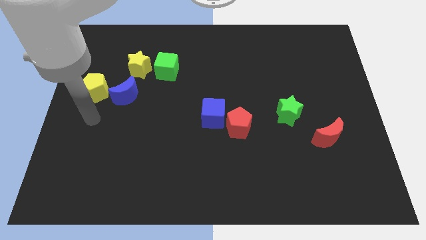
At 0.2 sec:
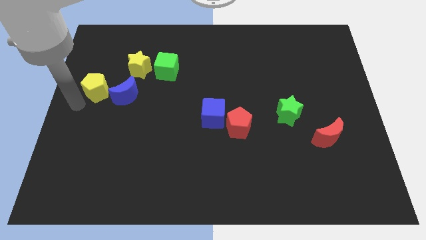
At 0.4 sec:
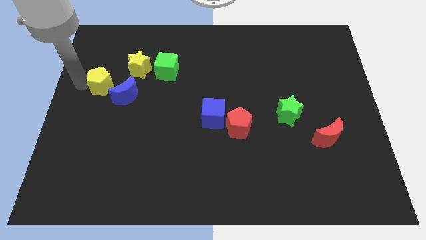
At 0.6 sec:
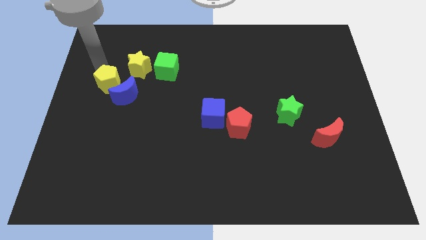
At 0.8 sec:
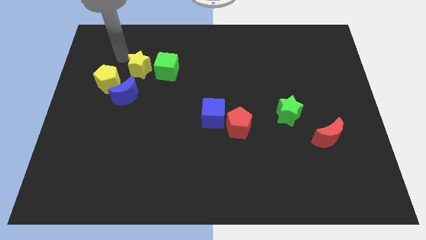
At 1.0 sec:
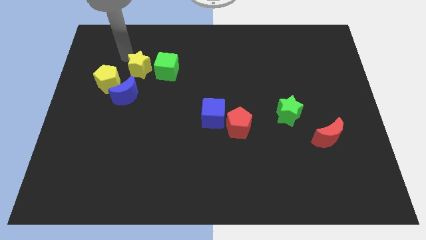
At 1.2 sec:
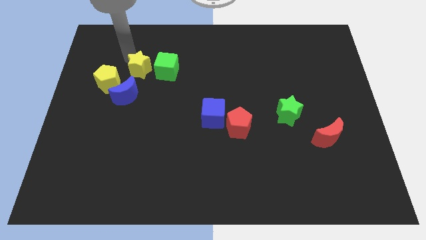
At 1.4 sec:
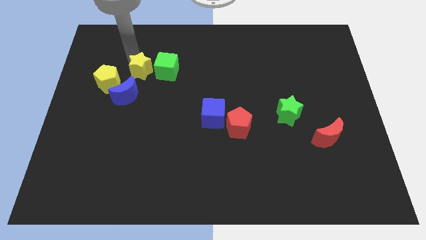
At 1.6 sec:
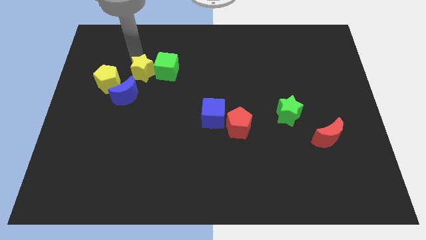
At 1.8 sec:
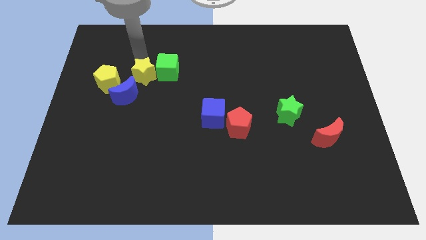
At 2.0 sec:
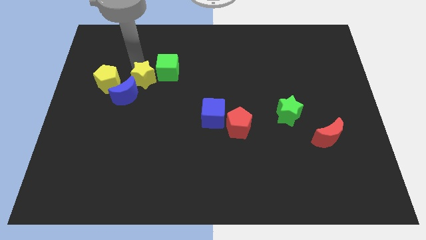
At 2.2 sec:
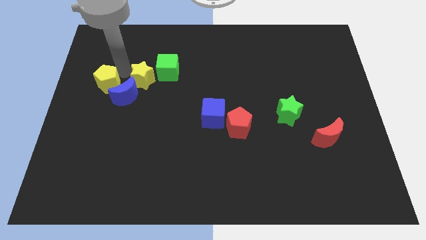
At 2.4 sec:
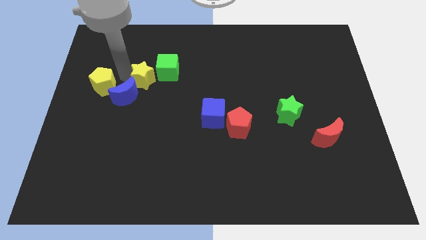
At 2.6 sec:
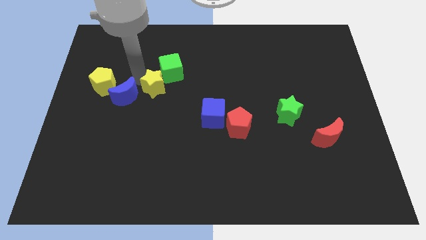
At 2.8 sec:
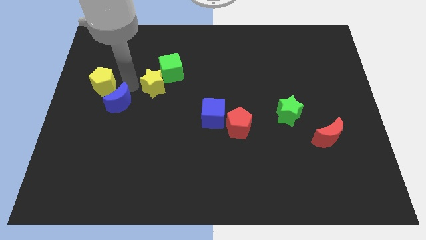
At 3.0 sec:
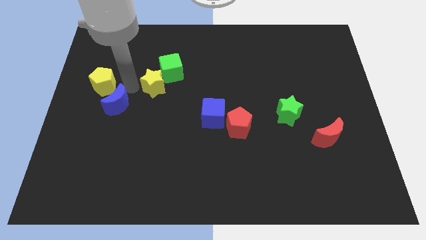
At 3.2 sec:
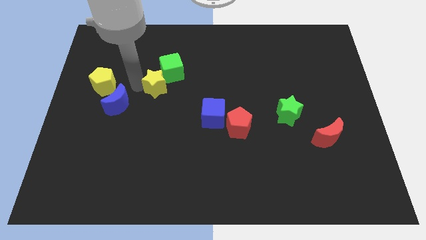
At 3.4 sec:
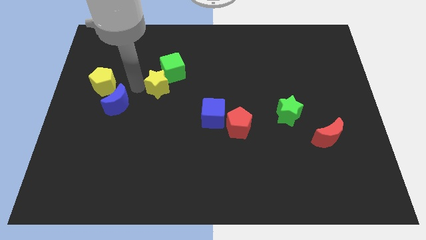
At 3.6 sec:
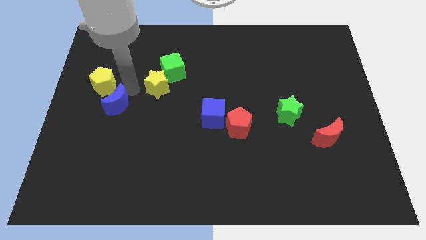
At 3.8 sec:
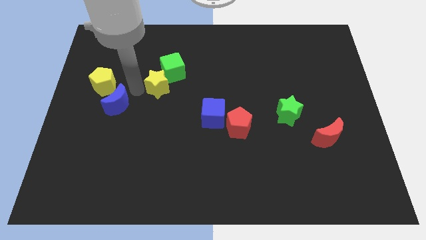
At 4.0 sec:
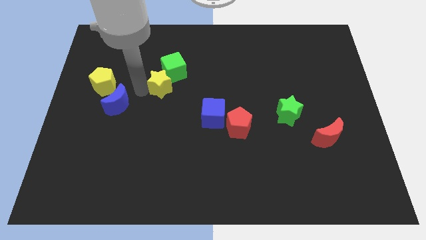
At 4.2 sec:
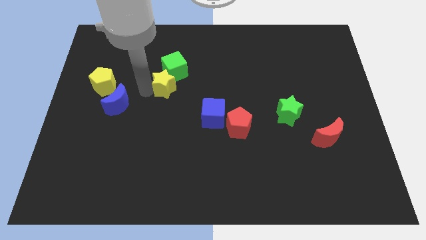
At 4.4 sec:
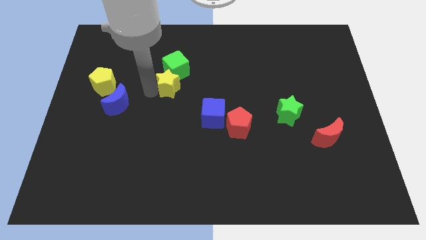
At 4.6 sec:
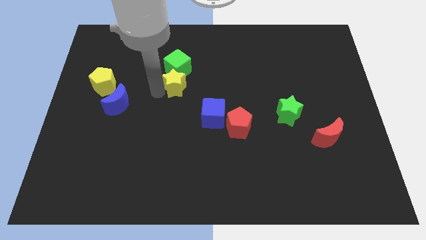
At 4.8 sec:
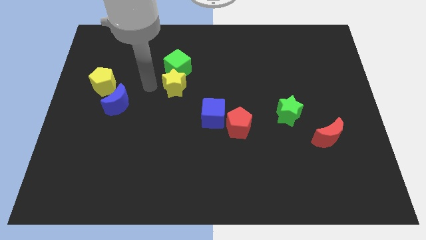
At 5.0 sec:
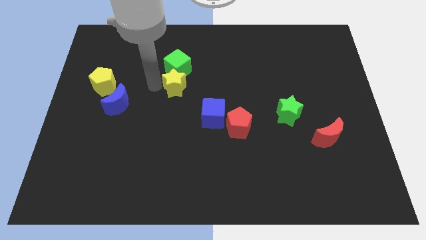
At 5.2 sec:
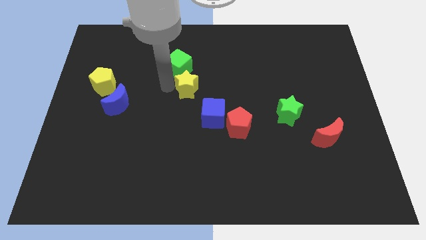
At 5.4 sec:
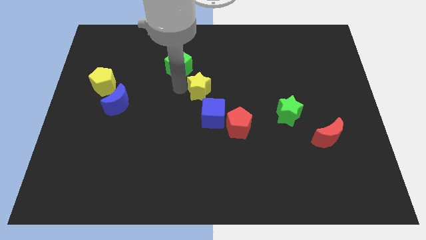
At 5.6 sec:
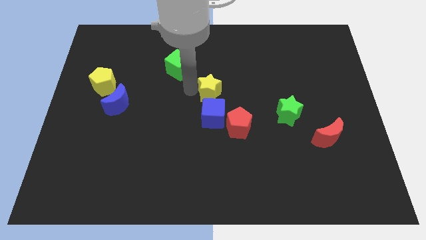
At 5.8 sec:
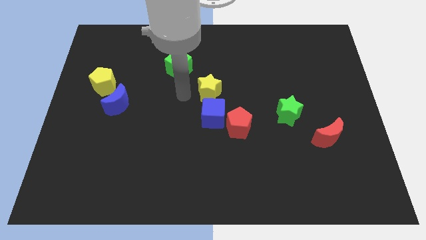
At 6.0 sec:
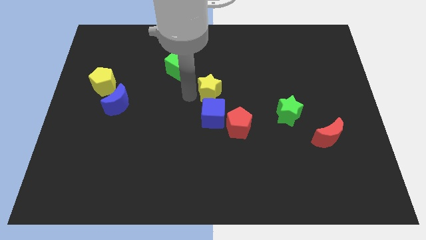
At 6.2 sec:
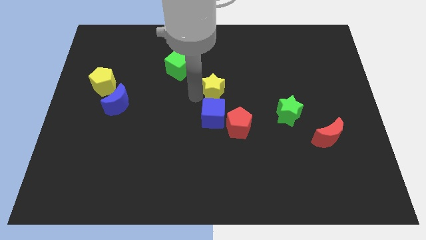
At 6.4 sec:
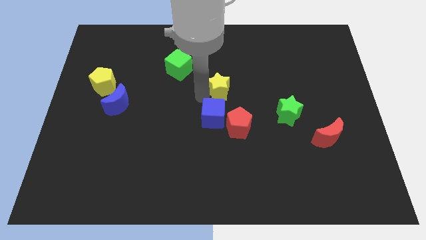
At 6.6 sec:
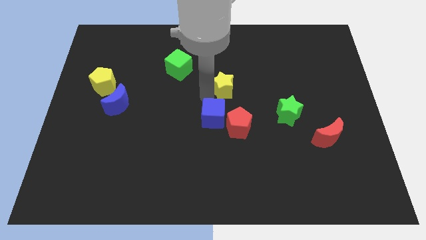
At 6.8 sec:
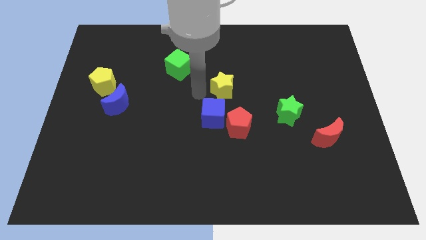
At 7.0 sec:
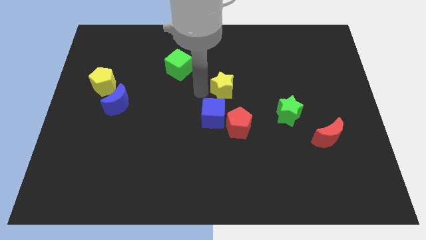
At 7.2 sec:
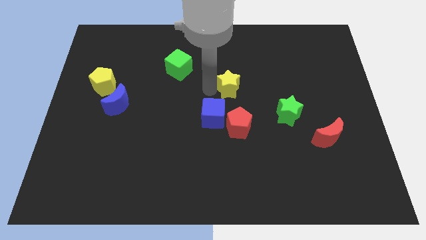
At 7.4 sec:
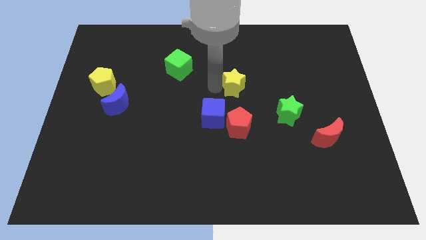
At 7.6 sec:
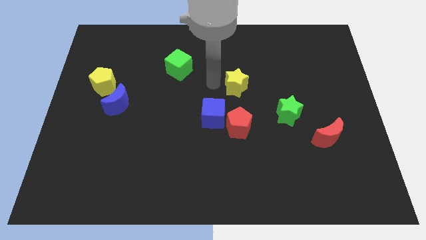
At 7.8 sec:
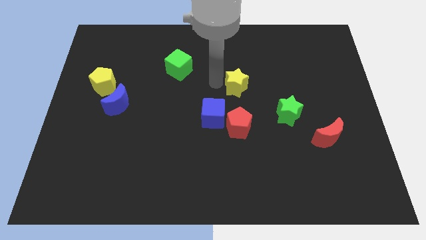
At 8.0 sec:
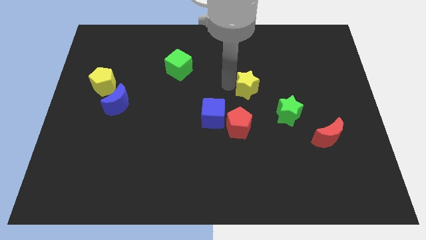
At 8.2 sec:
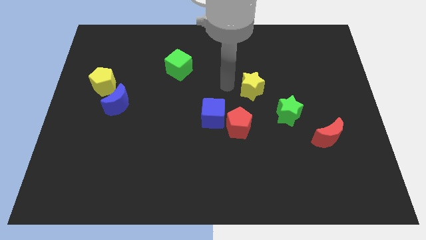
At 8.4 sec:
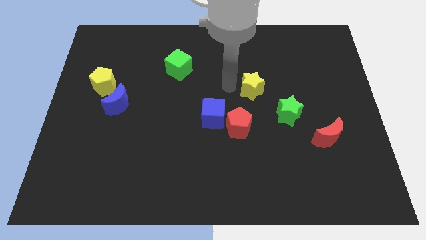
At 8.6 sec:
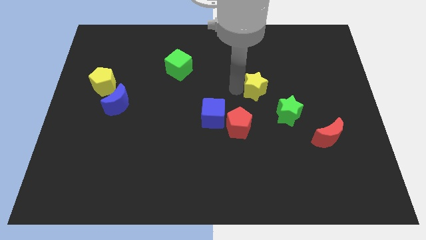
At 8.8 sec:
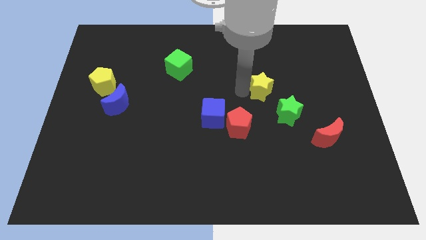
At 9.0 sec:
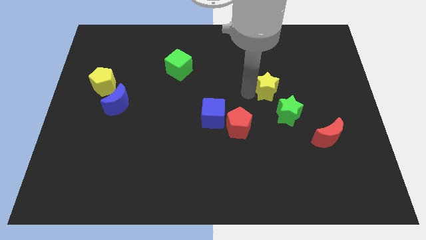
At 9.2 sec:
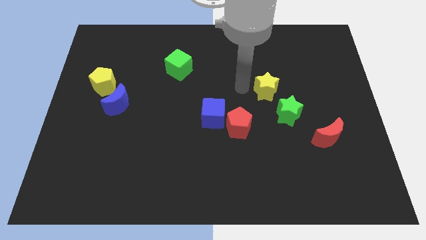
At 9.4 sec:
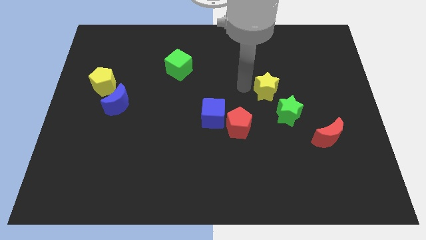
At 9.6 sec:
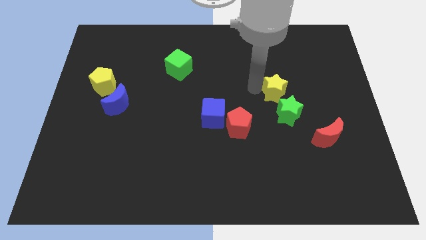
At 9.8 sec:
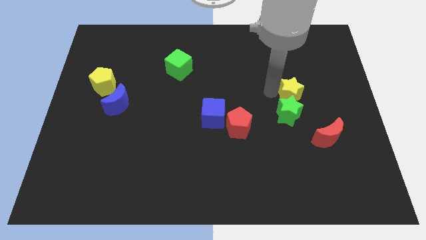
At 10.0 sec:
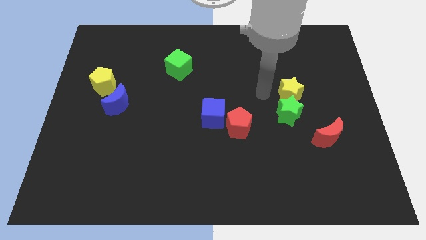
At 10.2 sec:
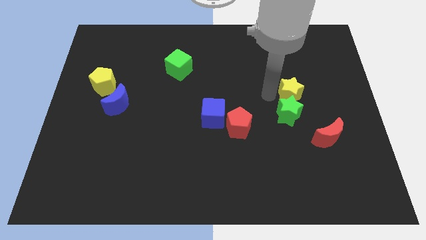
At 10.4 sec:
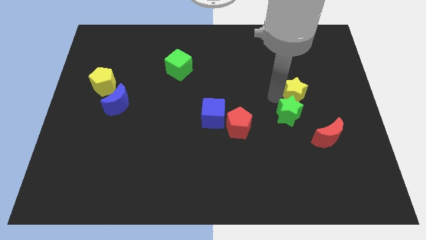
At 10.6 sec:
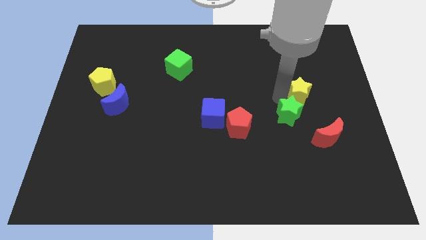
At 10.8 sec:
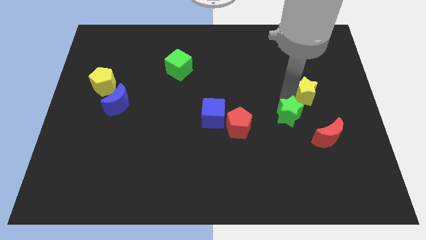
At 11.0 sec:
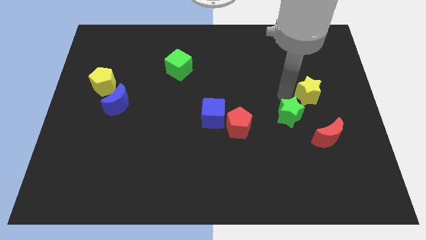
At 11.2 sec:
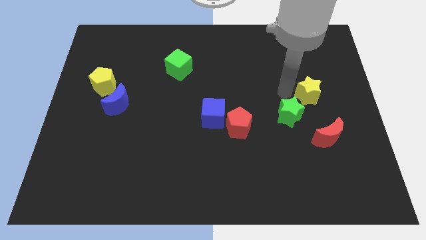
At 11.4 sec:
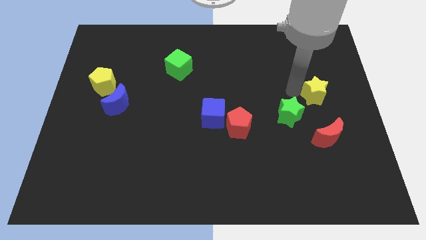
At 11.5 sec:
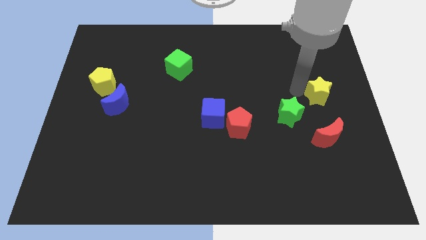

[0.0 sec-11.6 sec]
put the yellow star to the right side of the board
